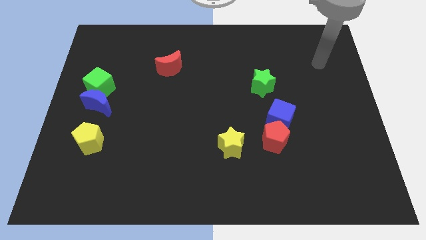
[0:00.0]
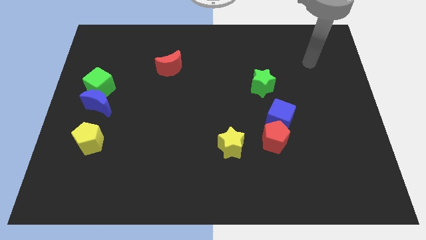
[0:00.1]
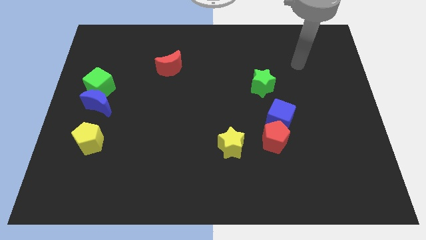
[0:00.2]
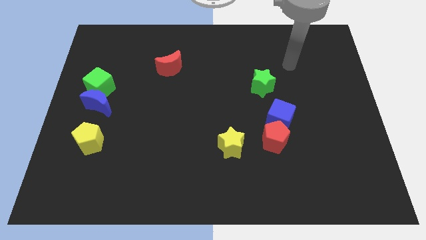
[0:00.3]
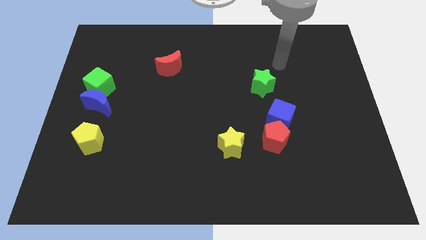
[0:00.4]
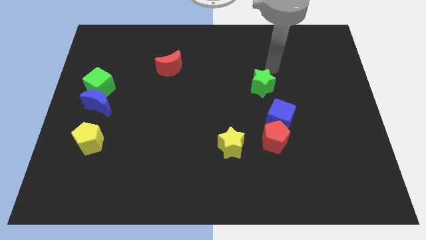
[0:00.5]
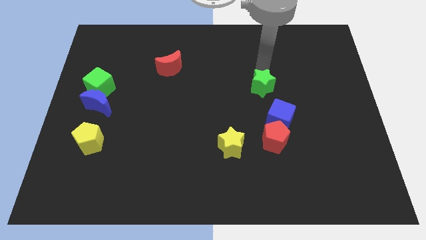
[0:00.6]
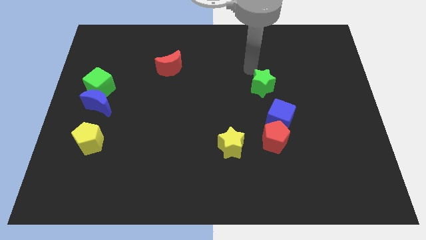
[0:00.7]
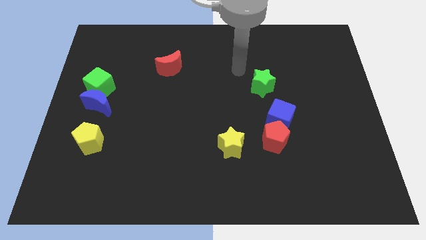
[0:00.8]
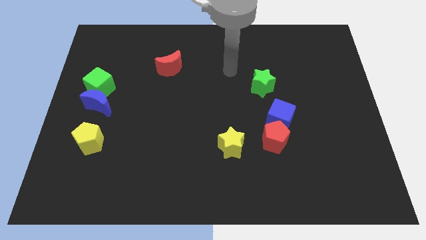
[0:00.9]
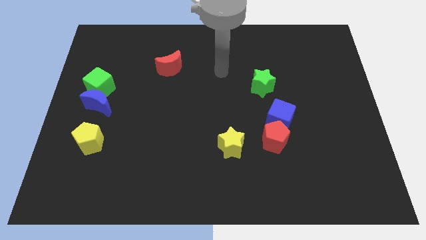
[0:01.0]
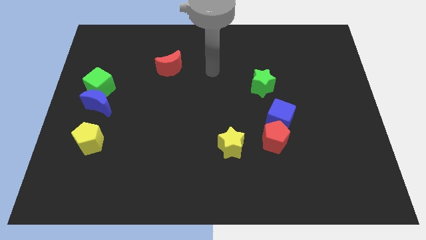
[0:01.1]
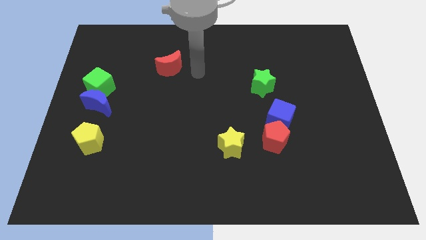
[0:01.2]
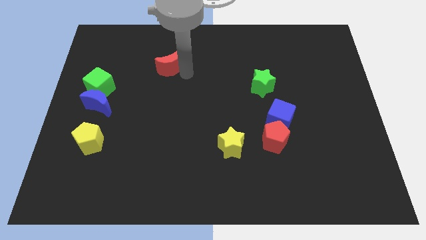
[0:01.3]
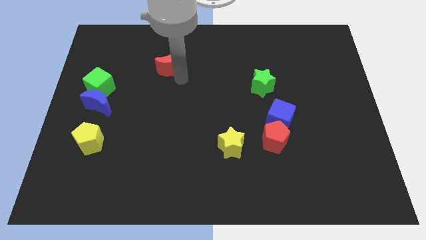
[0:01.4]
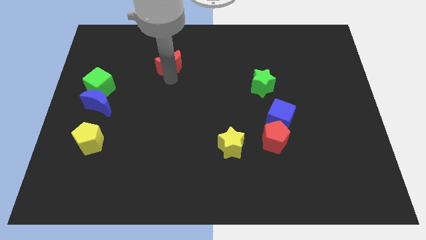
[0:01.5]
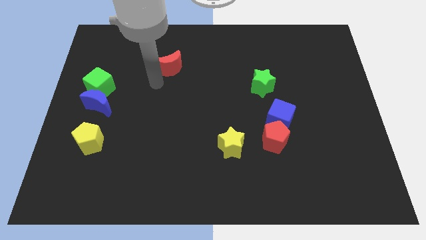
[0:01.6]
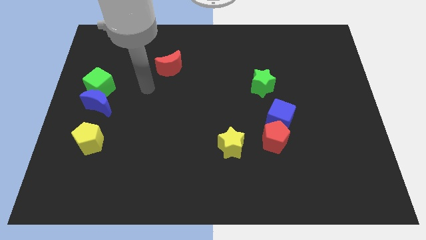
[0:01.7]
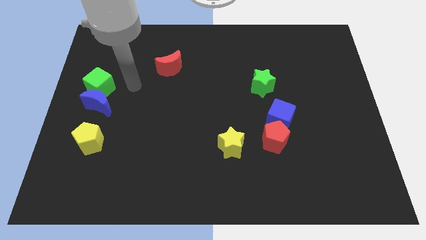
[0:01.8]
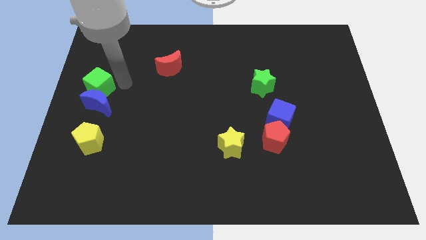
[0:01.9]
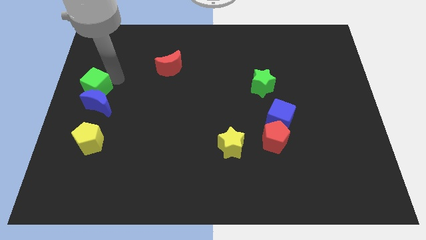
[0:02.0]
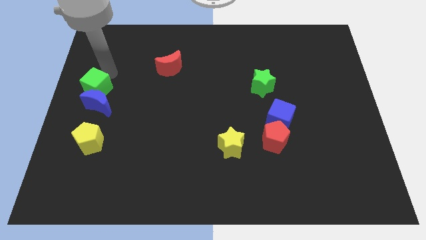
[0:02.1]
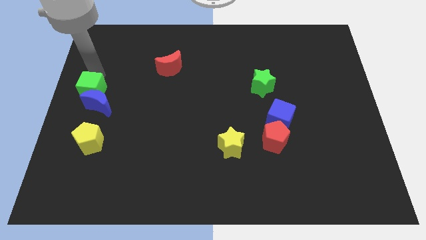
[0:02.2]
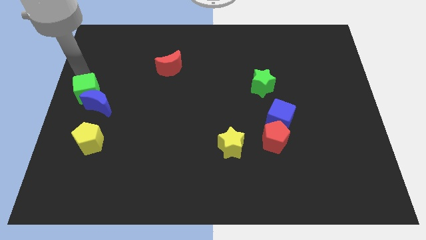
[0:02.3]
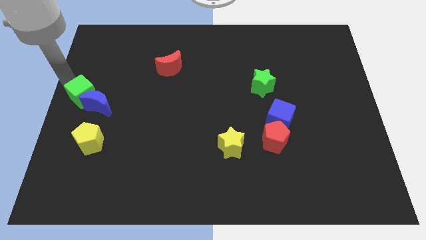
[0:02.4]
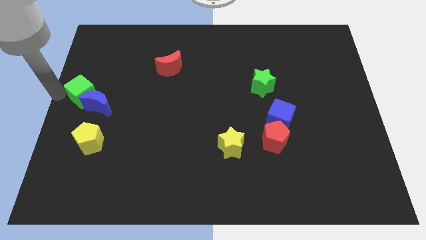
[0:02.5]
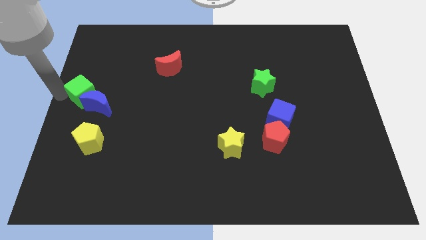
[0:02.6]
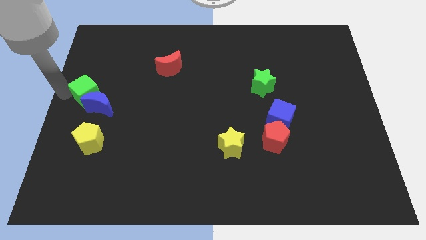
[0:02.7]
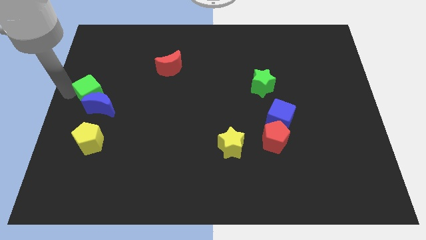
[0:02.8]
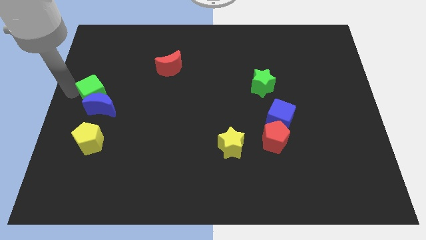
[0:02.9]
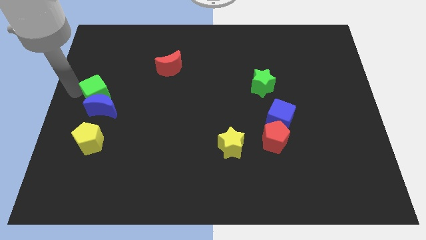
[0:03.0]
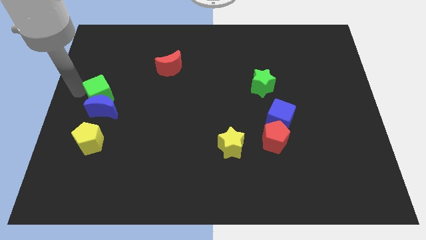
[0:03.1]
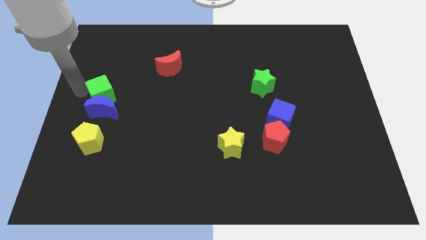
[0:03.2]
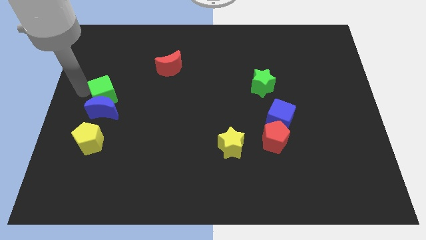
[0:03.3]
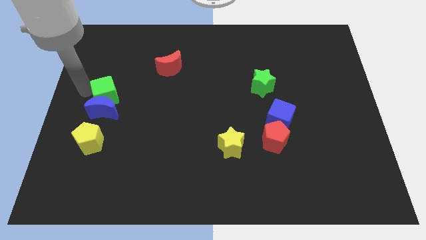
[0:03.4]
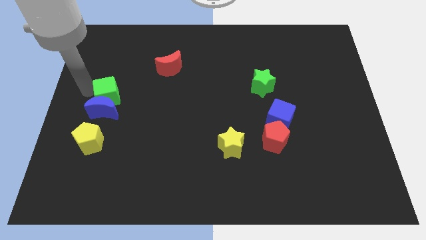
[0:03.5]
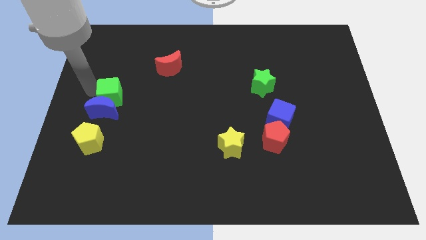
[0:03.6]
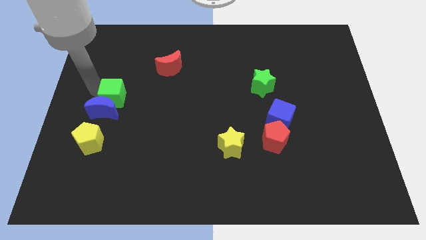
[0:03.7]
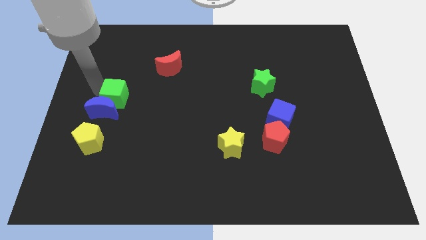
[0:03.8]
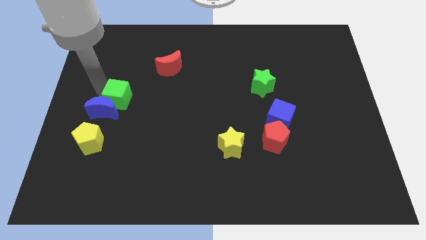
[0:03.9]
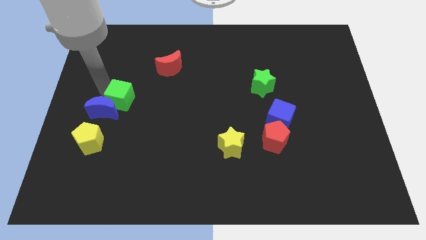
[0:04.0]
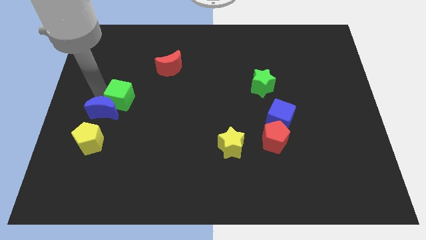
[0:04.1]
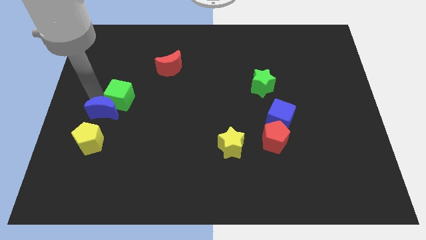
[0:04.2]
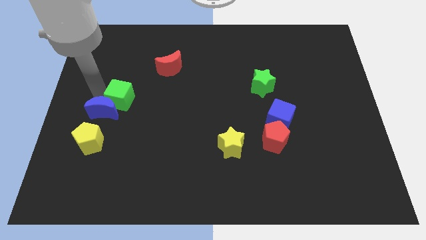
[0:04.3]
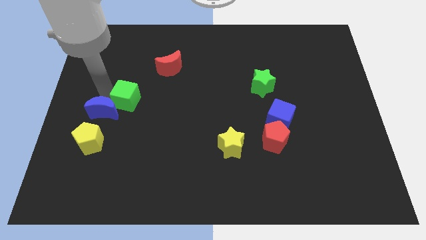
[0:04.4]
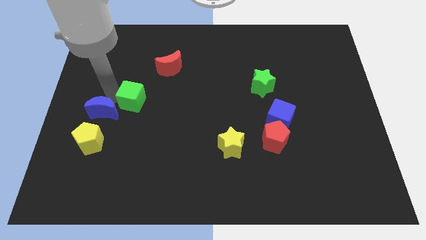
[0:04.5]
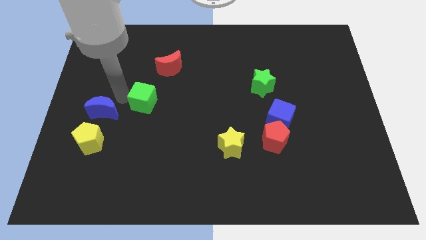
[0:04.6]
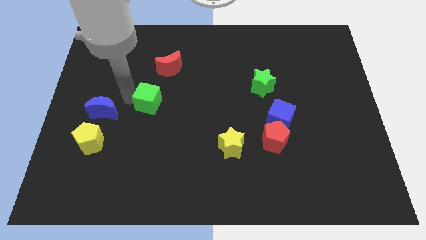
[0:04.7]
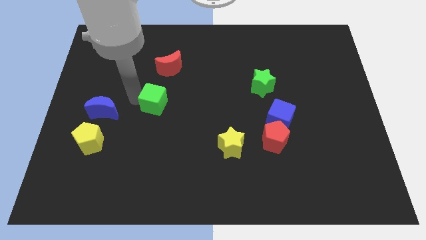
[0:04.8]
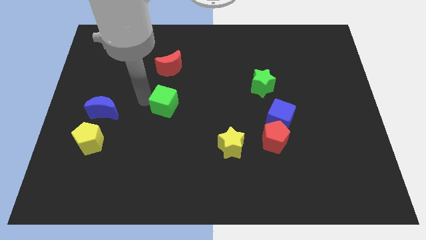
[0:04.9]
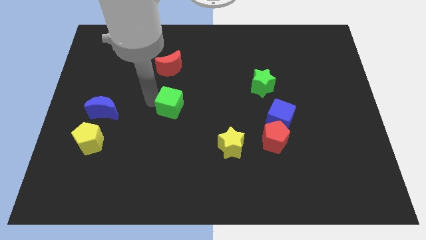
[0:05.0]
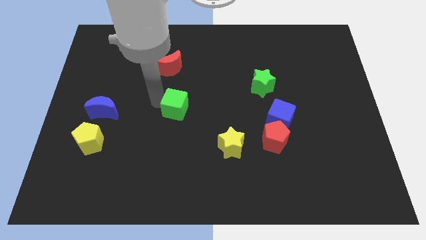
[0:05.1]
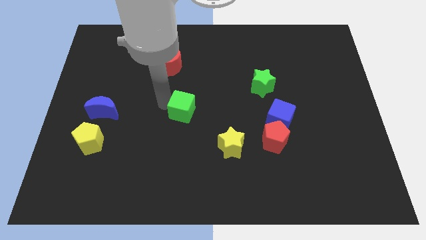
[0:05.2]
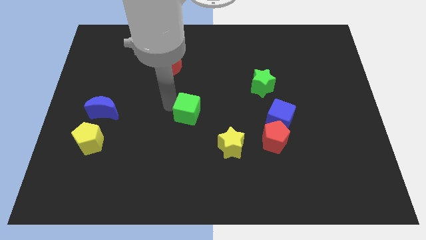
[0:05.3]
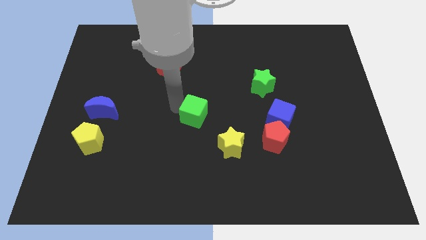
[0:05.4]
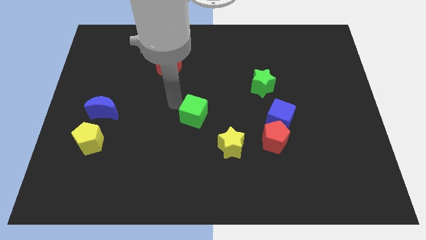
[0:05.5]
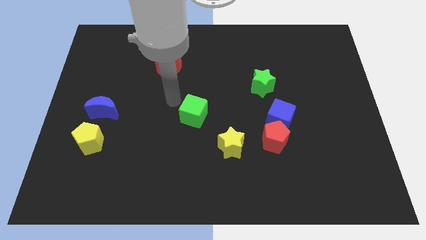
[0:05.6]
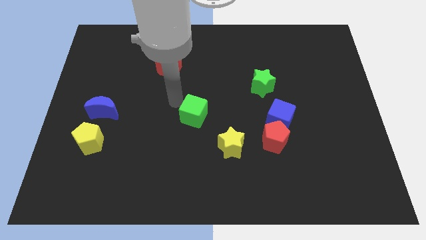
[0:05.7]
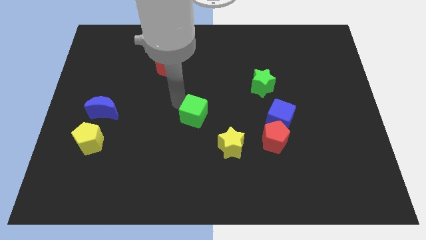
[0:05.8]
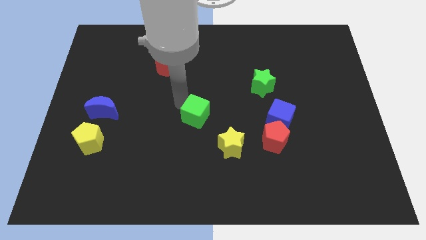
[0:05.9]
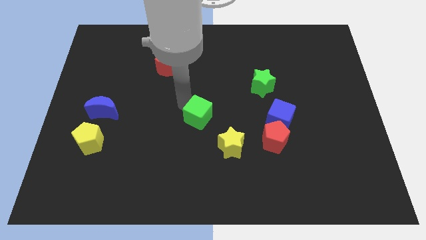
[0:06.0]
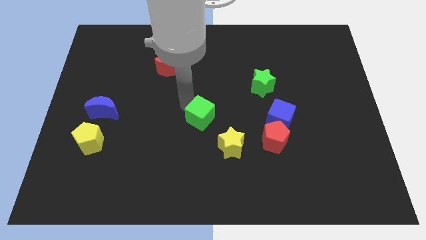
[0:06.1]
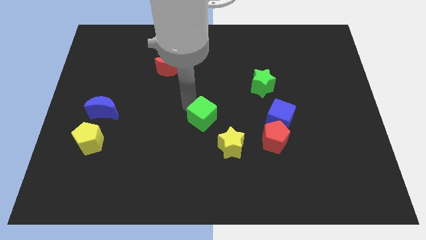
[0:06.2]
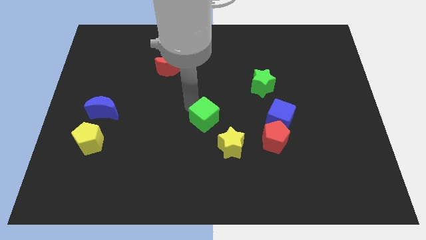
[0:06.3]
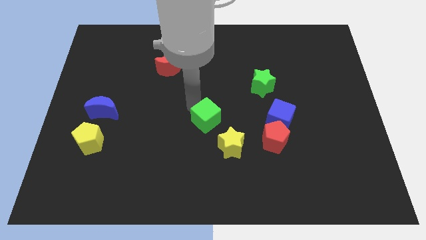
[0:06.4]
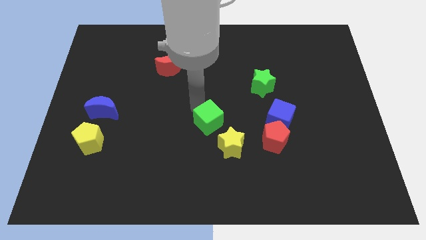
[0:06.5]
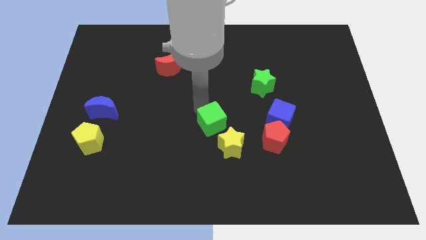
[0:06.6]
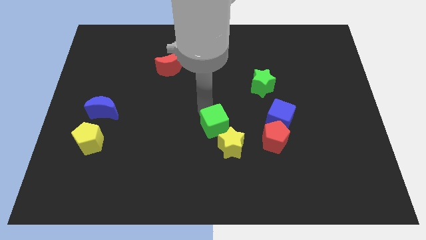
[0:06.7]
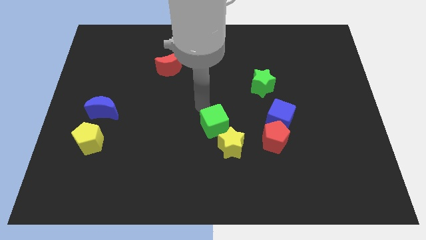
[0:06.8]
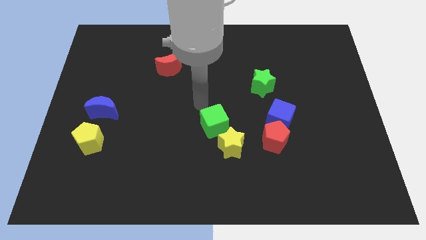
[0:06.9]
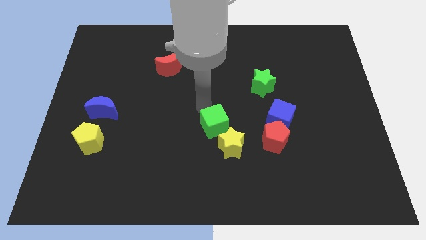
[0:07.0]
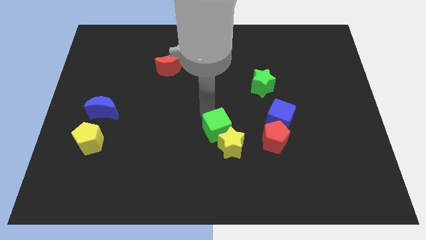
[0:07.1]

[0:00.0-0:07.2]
put the green cube to the yellow star

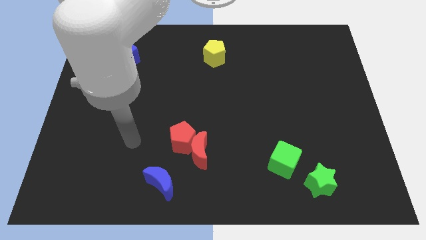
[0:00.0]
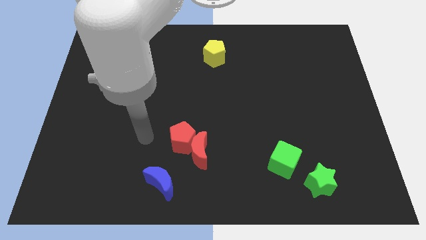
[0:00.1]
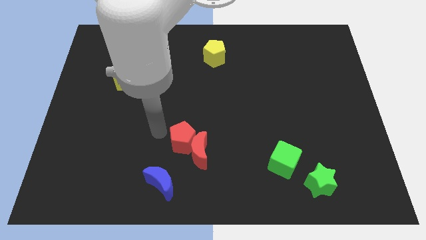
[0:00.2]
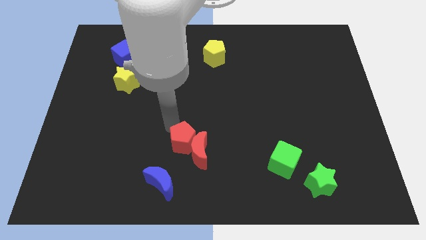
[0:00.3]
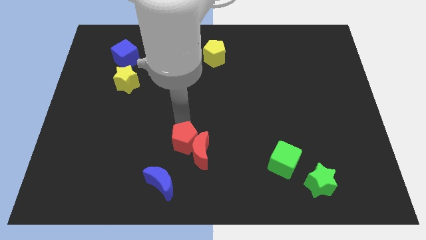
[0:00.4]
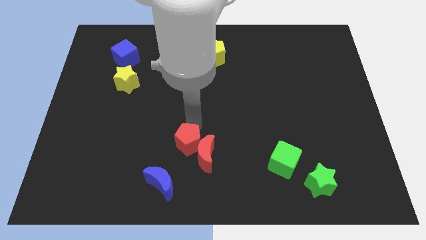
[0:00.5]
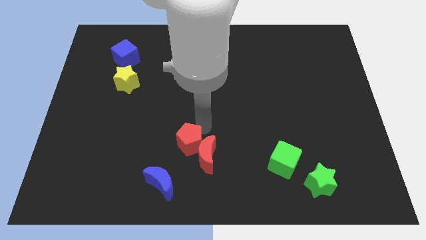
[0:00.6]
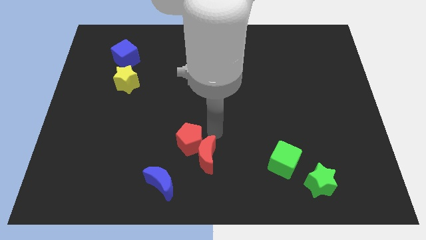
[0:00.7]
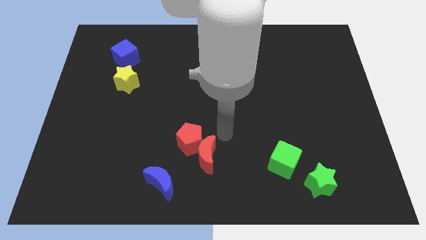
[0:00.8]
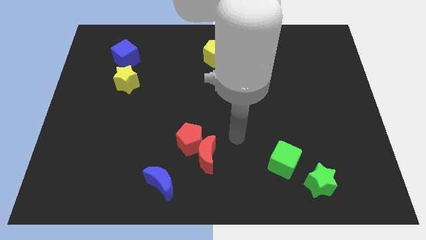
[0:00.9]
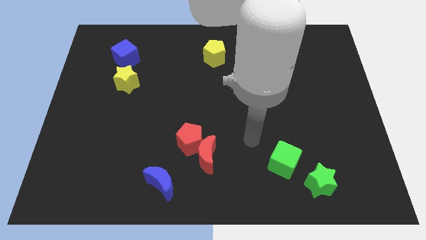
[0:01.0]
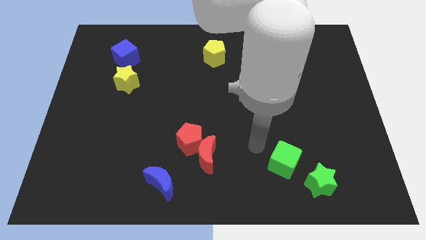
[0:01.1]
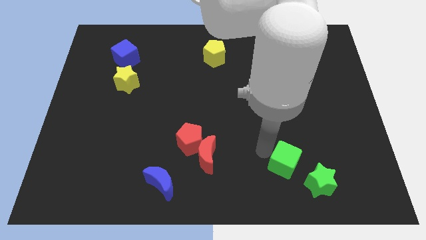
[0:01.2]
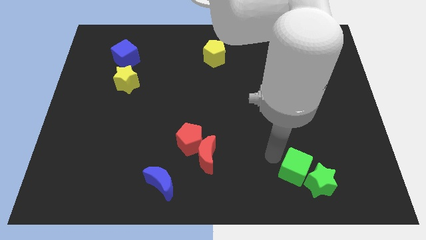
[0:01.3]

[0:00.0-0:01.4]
move the green cube close to the green star
